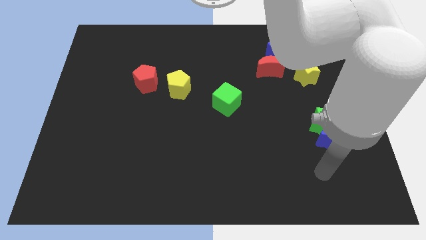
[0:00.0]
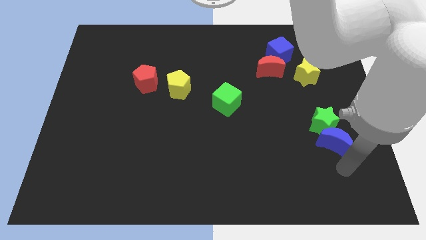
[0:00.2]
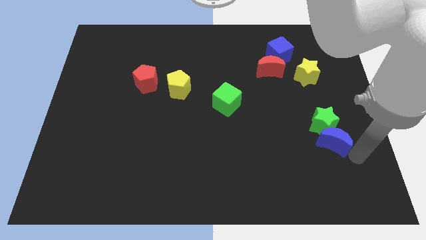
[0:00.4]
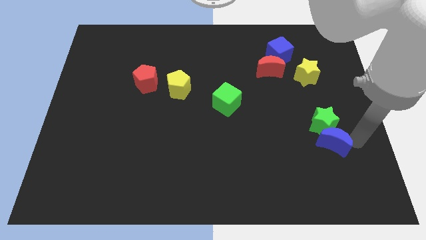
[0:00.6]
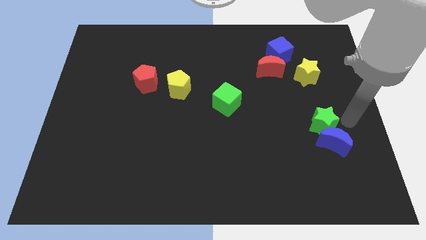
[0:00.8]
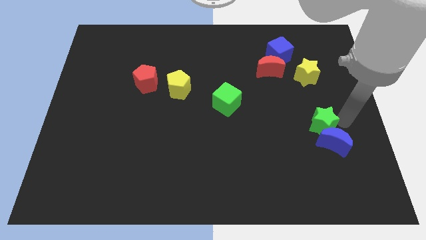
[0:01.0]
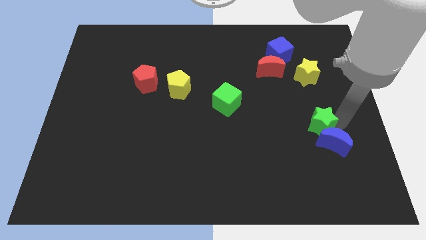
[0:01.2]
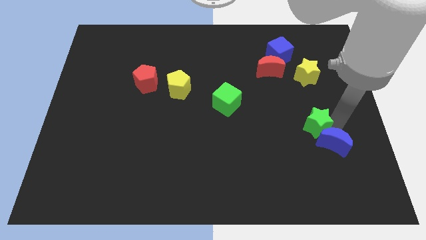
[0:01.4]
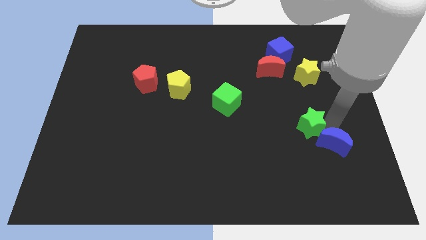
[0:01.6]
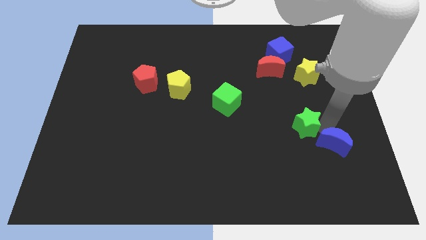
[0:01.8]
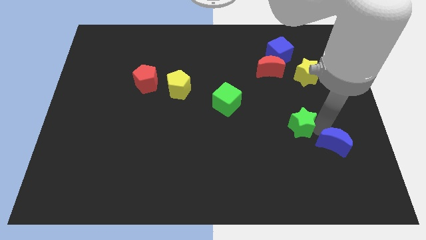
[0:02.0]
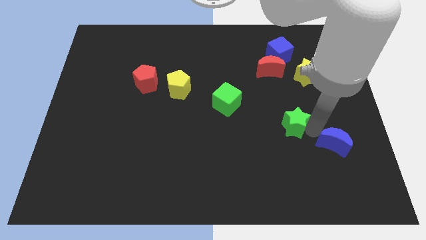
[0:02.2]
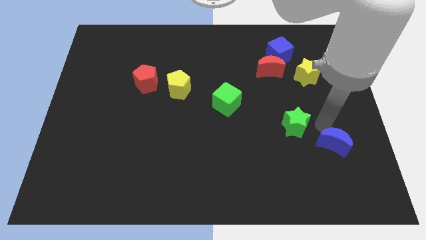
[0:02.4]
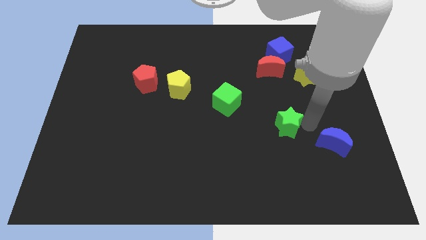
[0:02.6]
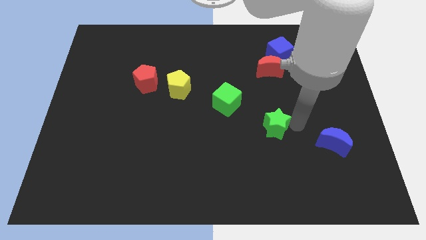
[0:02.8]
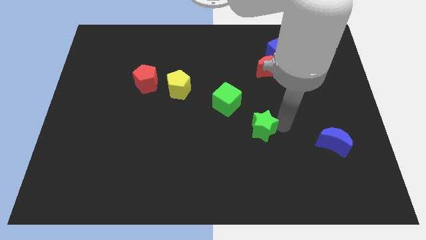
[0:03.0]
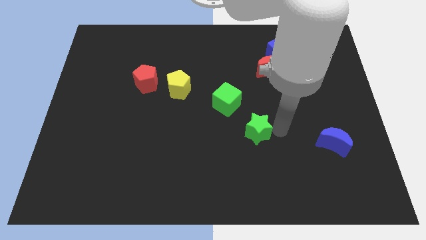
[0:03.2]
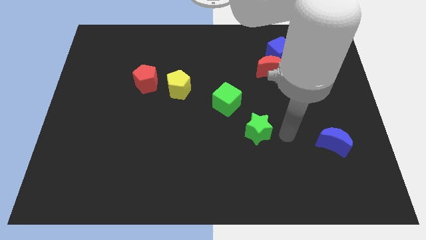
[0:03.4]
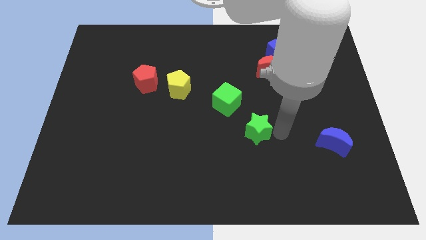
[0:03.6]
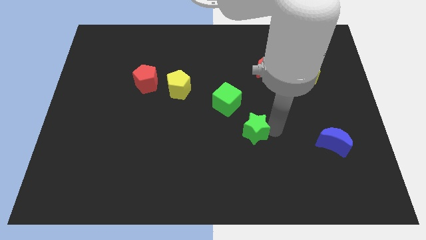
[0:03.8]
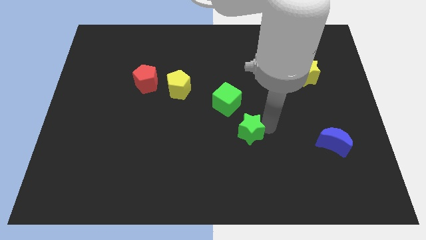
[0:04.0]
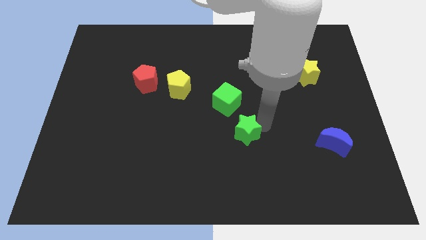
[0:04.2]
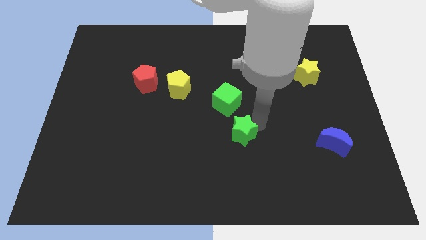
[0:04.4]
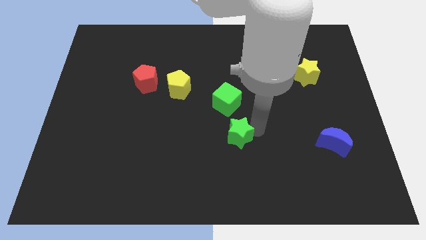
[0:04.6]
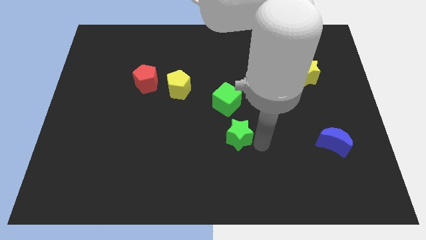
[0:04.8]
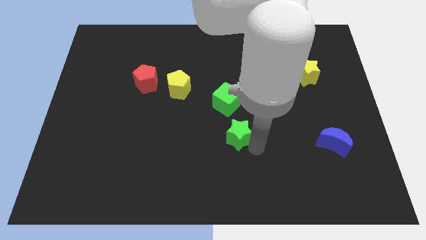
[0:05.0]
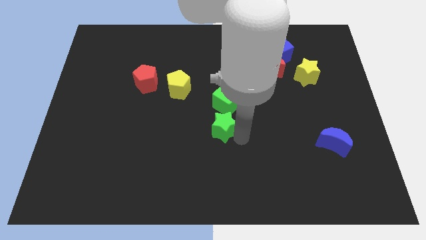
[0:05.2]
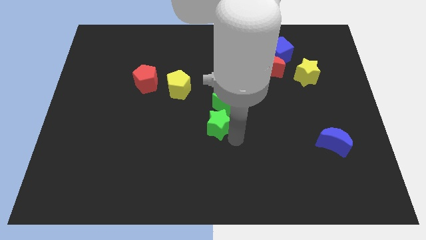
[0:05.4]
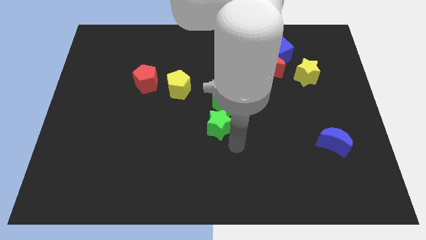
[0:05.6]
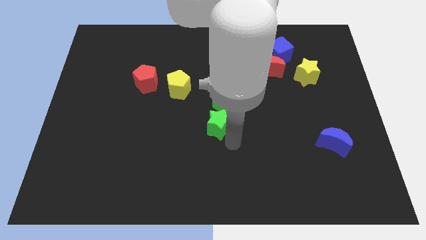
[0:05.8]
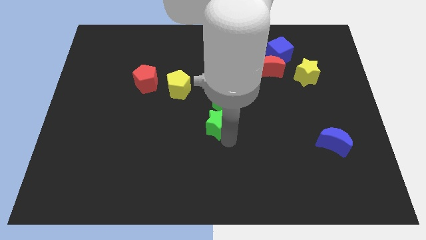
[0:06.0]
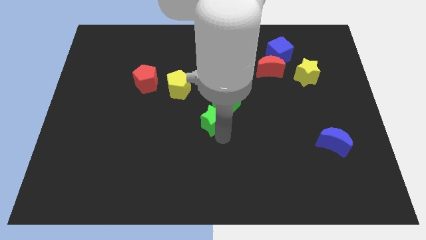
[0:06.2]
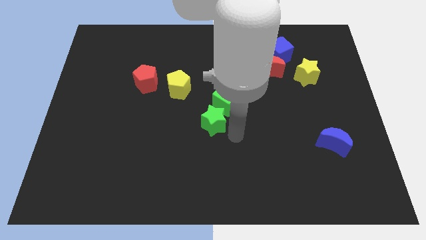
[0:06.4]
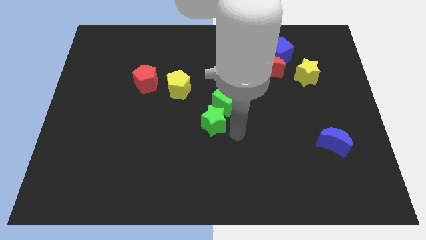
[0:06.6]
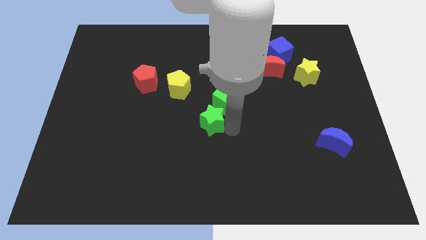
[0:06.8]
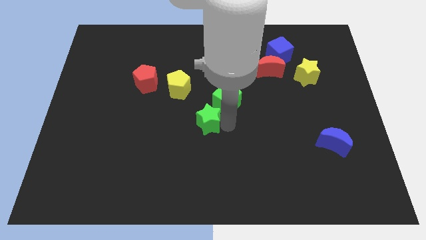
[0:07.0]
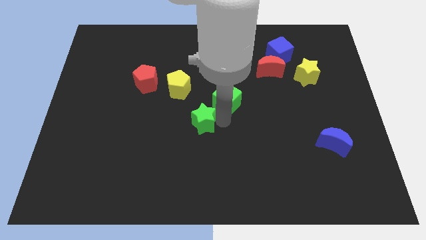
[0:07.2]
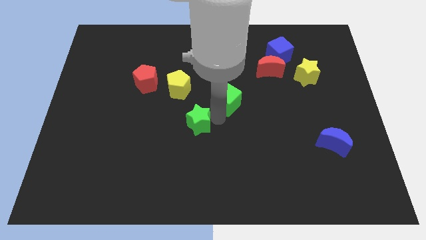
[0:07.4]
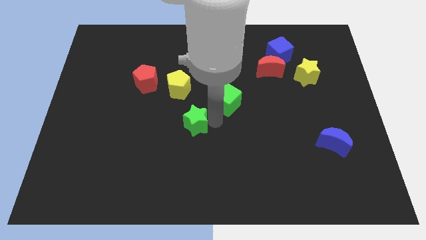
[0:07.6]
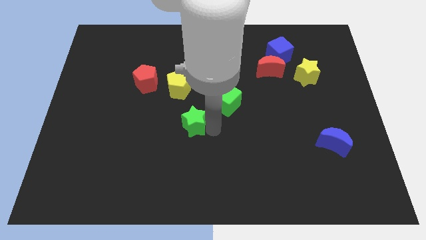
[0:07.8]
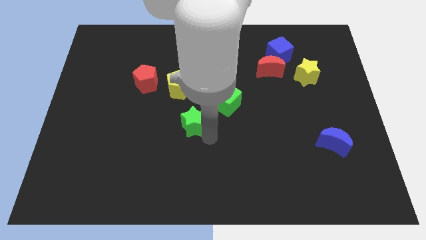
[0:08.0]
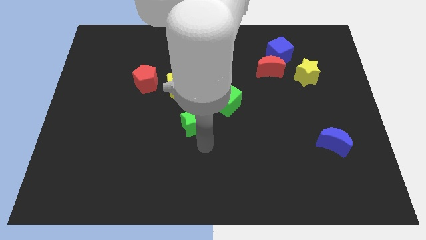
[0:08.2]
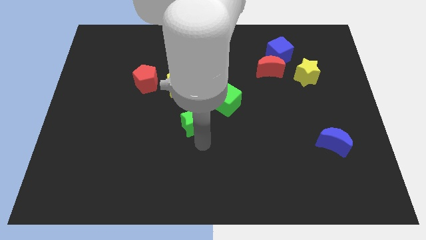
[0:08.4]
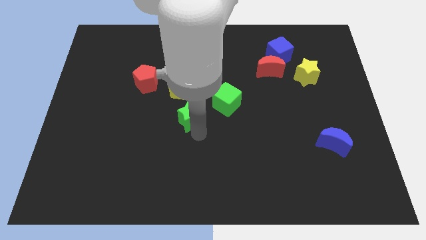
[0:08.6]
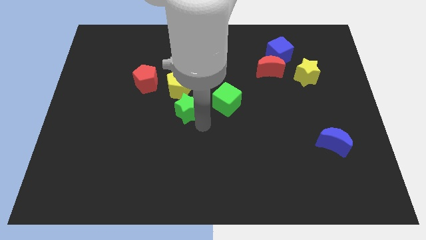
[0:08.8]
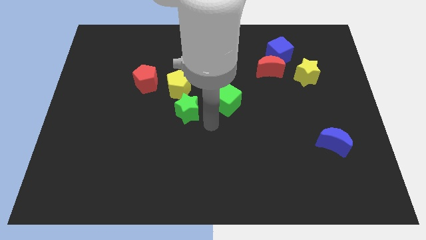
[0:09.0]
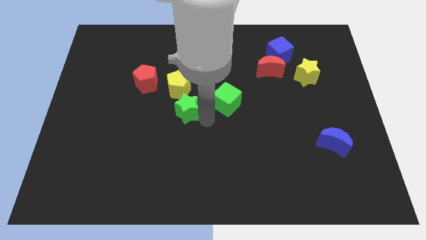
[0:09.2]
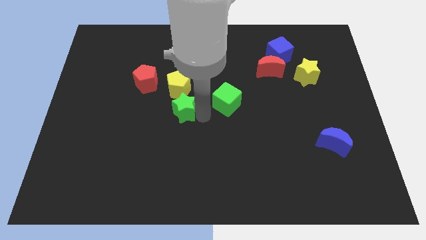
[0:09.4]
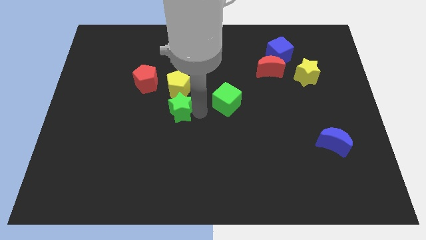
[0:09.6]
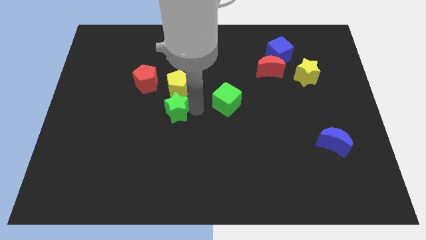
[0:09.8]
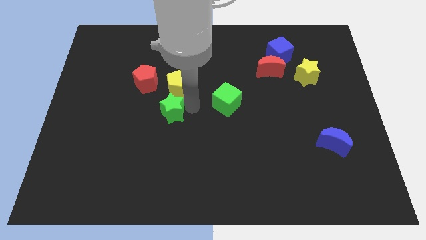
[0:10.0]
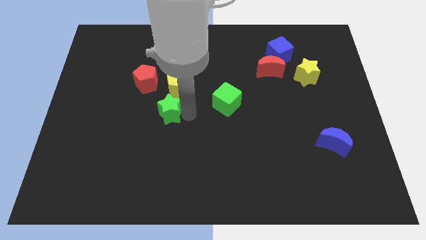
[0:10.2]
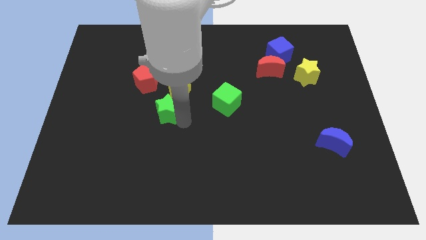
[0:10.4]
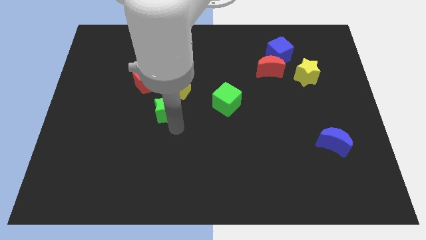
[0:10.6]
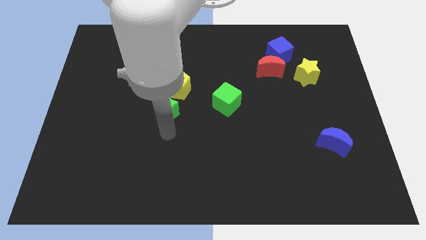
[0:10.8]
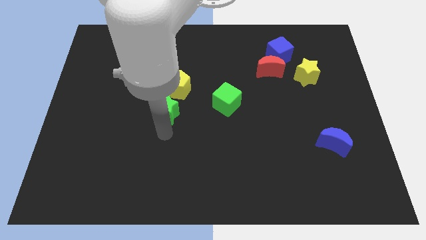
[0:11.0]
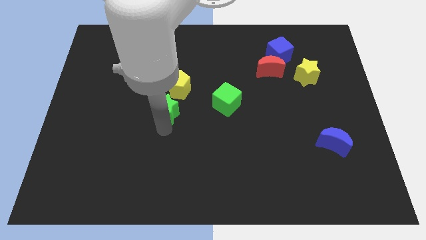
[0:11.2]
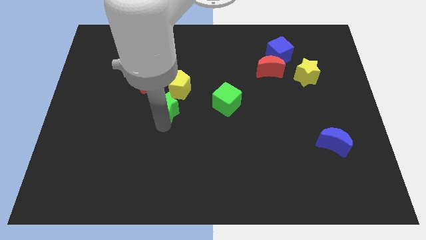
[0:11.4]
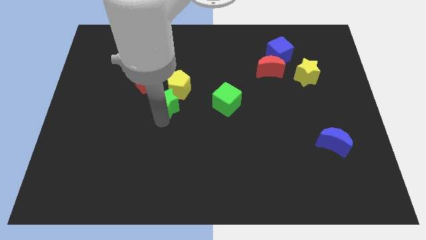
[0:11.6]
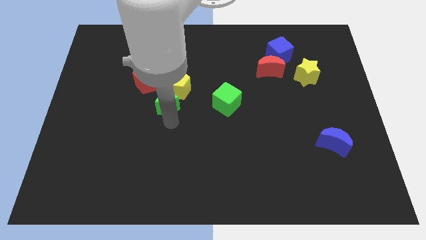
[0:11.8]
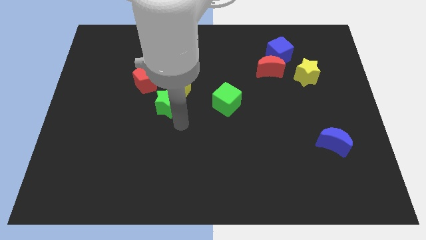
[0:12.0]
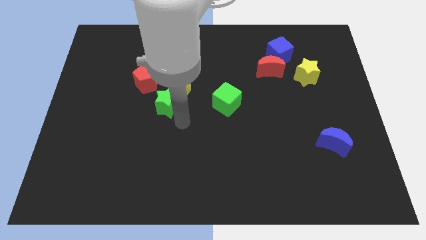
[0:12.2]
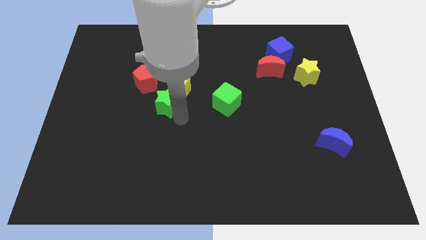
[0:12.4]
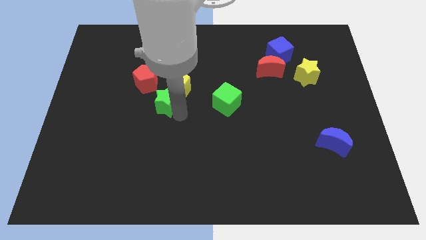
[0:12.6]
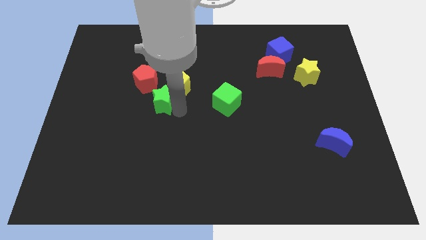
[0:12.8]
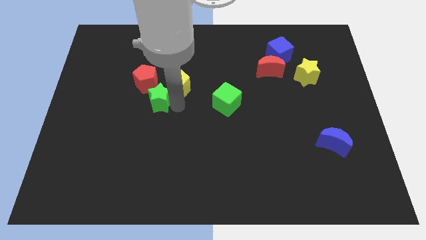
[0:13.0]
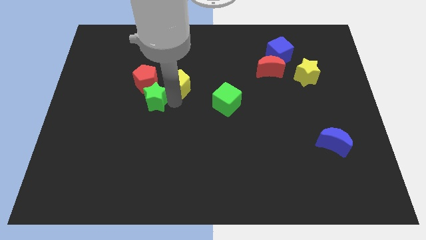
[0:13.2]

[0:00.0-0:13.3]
move the green star next to the red pentagon

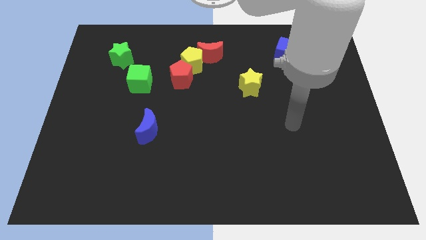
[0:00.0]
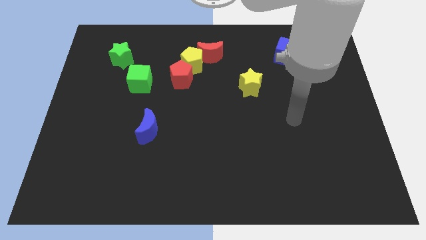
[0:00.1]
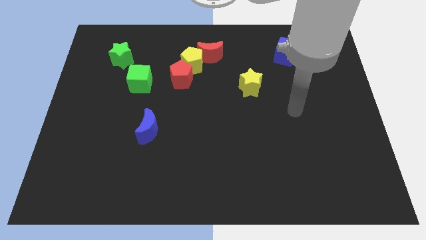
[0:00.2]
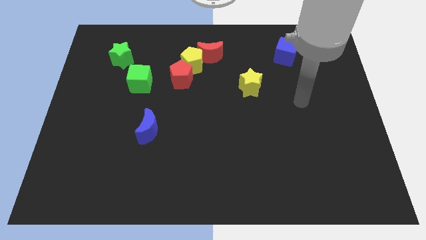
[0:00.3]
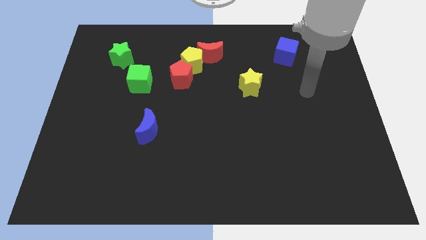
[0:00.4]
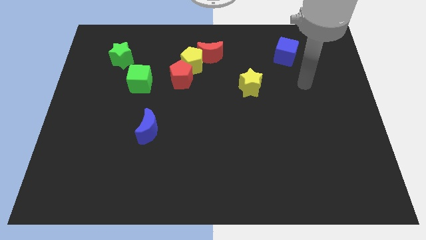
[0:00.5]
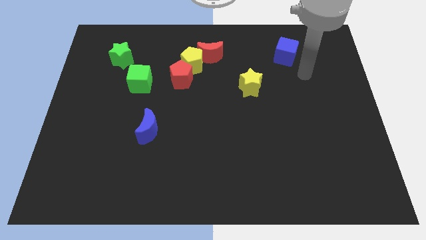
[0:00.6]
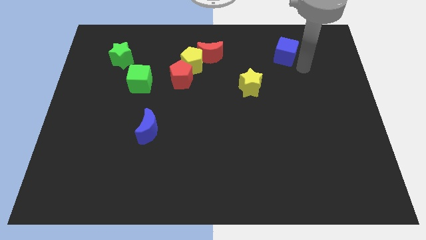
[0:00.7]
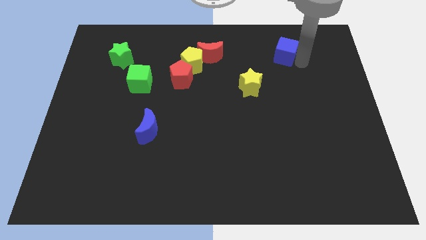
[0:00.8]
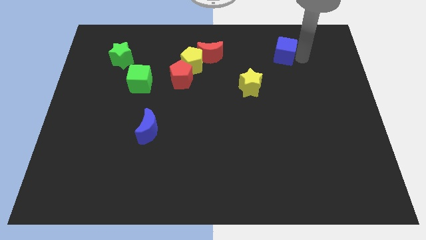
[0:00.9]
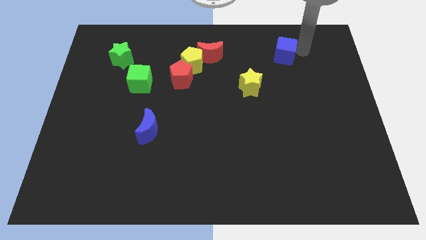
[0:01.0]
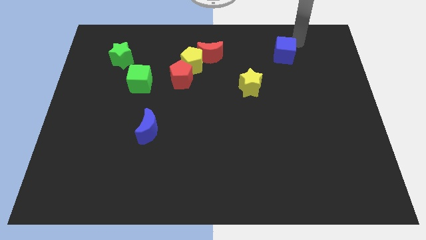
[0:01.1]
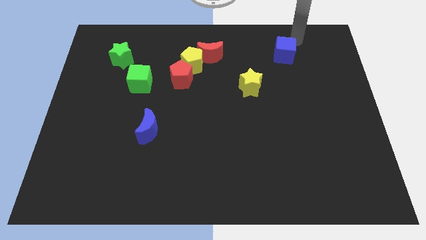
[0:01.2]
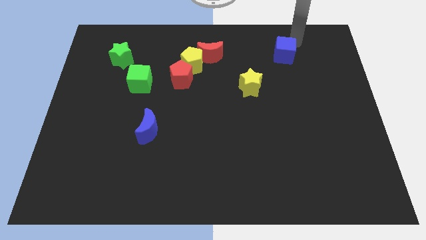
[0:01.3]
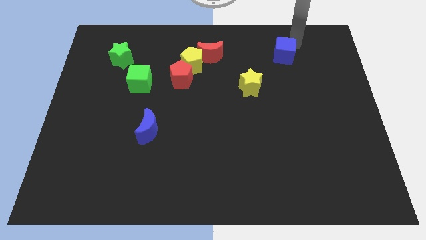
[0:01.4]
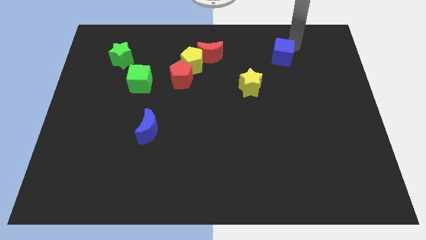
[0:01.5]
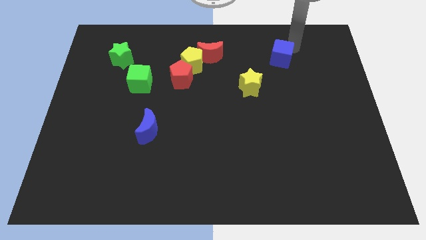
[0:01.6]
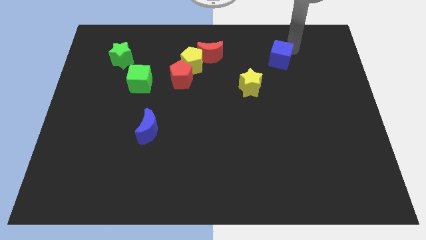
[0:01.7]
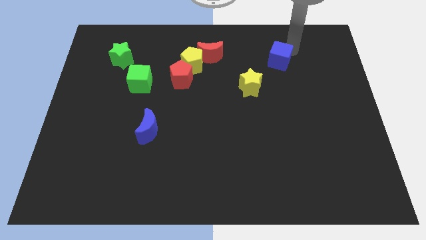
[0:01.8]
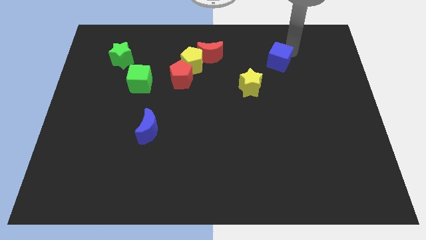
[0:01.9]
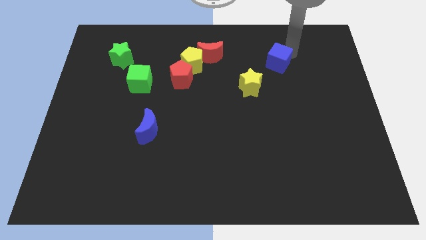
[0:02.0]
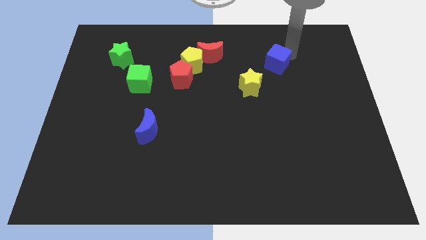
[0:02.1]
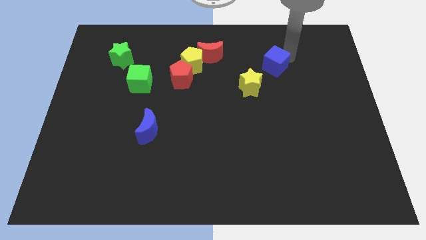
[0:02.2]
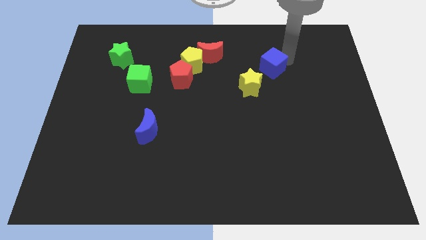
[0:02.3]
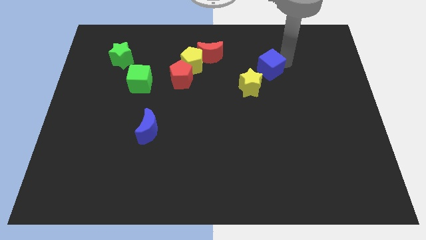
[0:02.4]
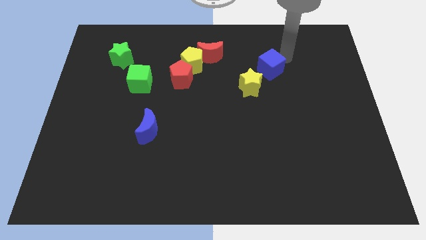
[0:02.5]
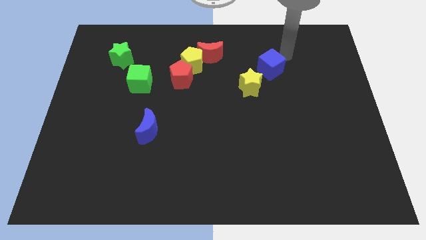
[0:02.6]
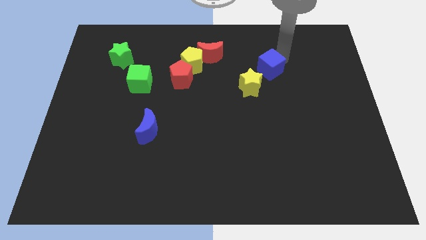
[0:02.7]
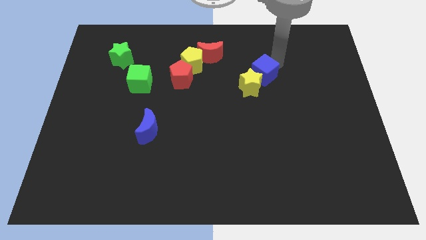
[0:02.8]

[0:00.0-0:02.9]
slide the blue cube towards the yellow star
